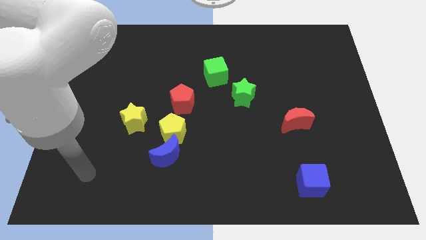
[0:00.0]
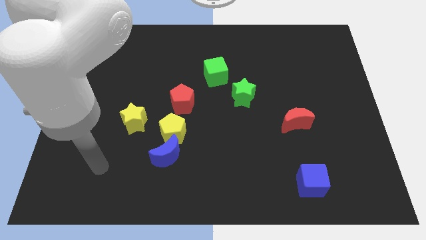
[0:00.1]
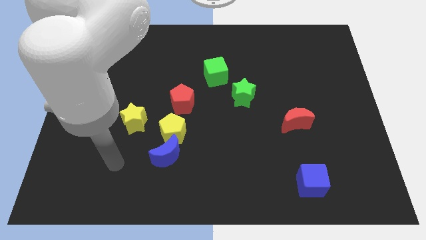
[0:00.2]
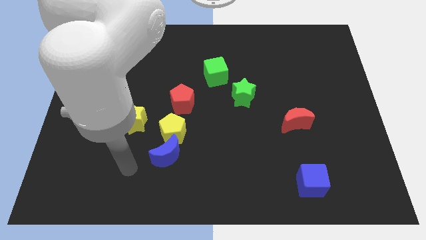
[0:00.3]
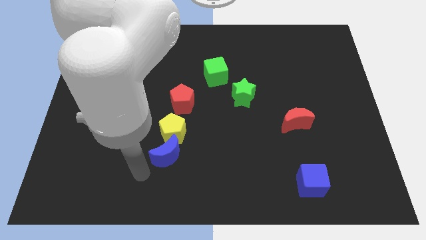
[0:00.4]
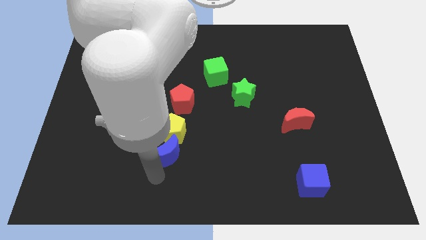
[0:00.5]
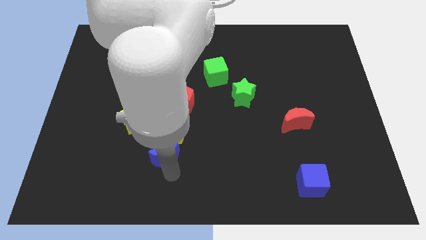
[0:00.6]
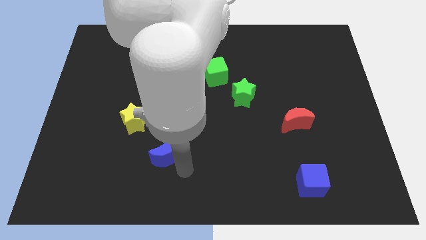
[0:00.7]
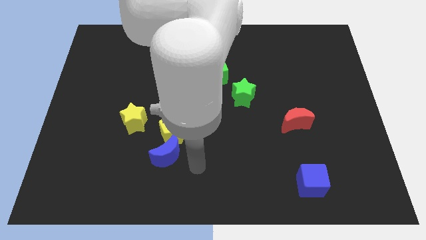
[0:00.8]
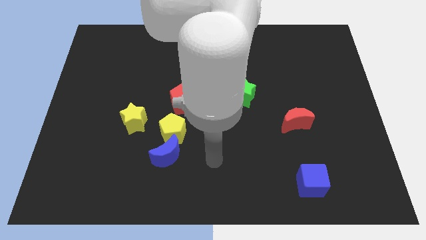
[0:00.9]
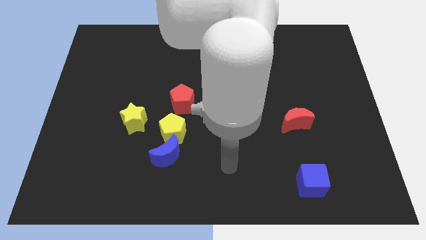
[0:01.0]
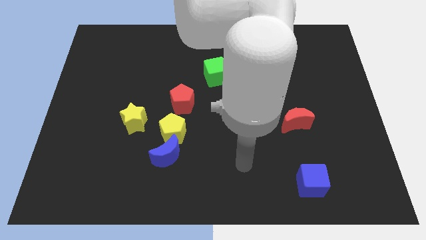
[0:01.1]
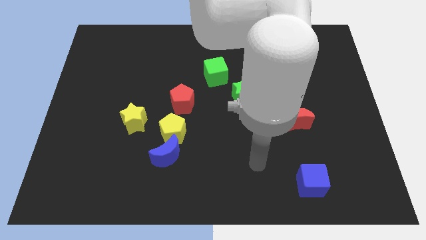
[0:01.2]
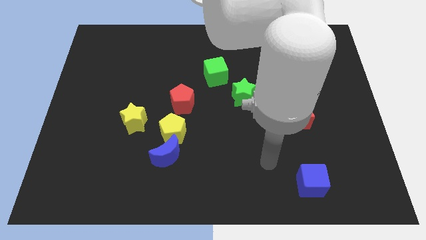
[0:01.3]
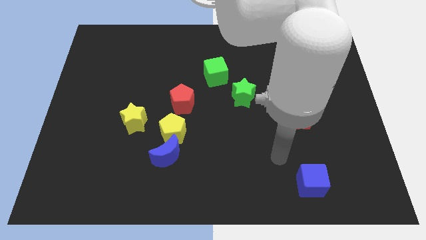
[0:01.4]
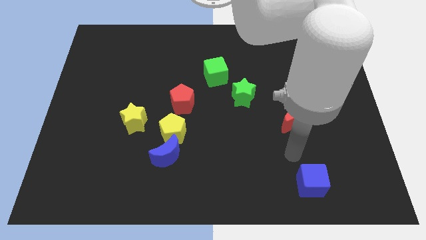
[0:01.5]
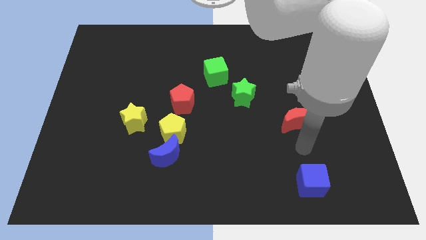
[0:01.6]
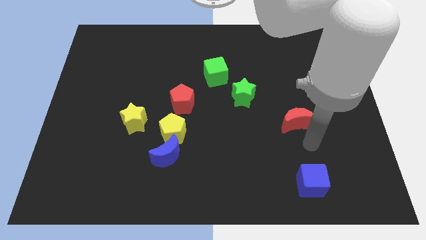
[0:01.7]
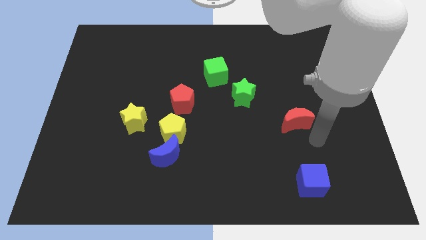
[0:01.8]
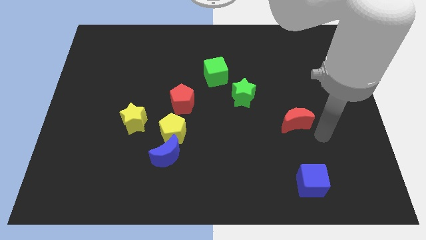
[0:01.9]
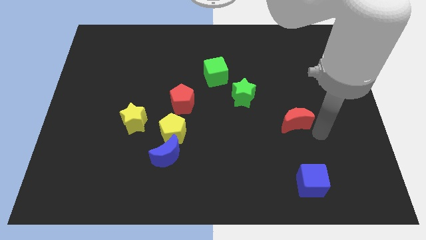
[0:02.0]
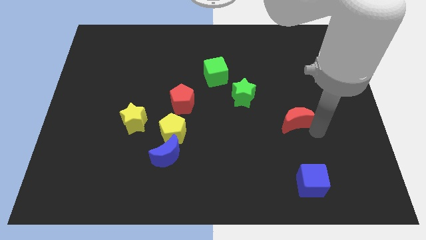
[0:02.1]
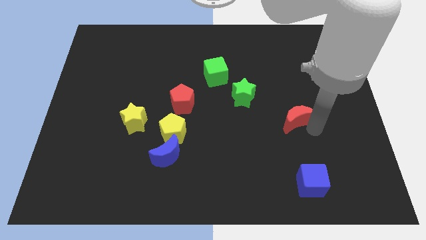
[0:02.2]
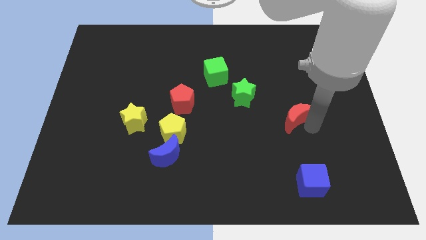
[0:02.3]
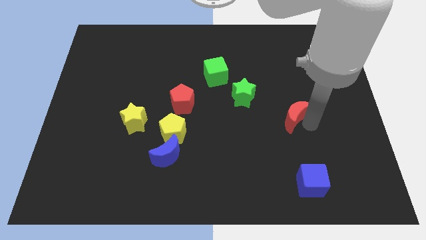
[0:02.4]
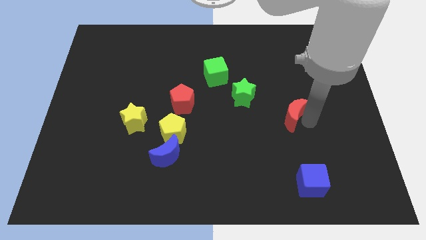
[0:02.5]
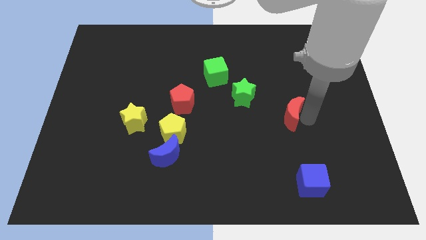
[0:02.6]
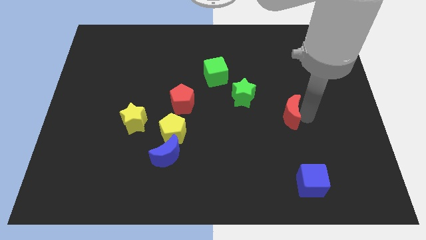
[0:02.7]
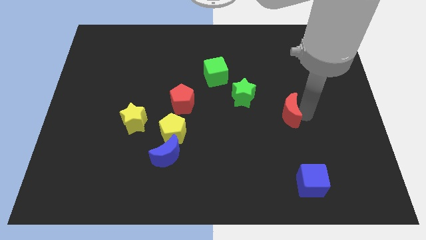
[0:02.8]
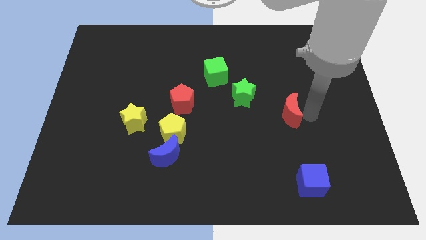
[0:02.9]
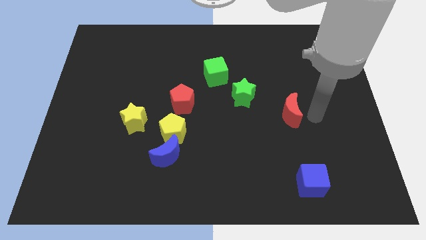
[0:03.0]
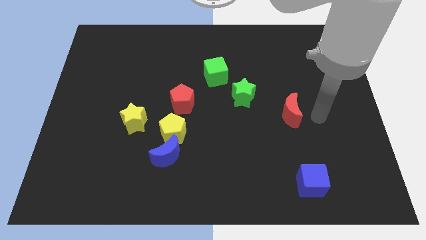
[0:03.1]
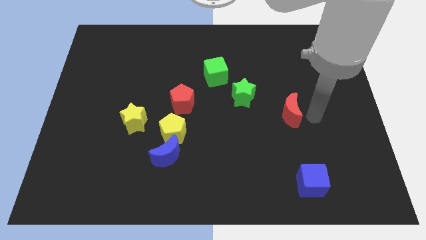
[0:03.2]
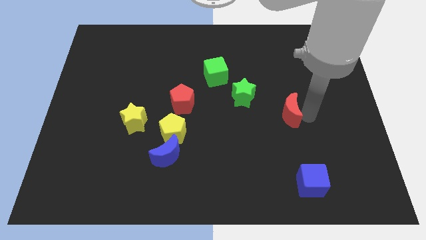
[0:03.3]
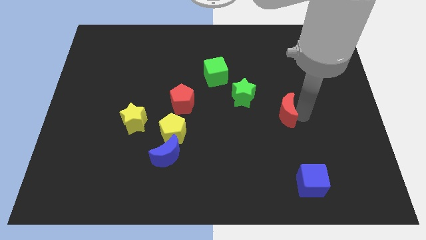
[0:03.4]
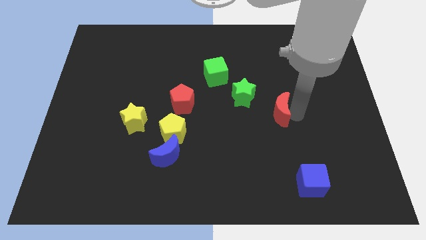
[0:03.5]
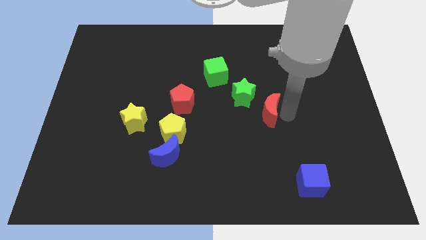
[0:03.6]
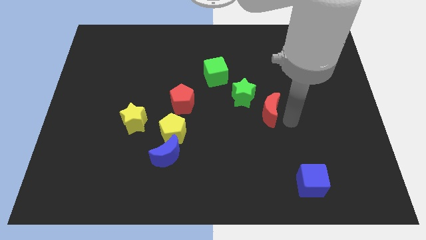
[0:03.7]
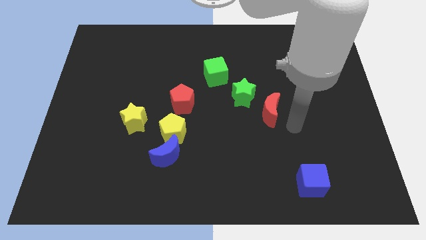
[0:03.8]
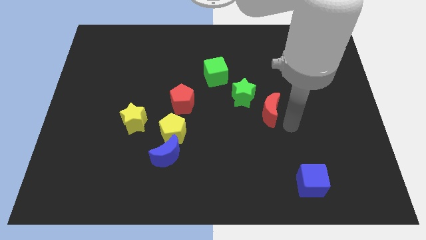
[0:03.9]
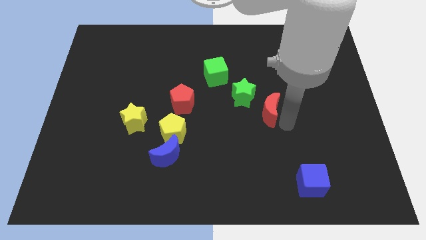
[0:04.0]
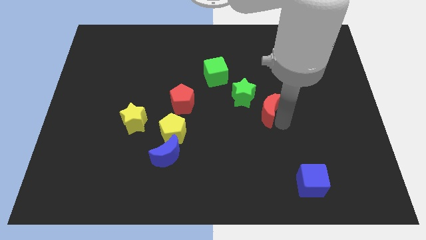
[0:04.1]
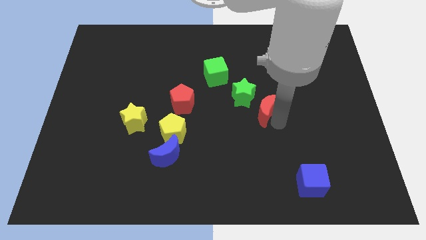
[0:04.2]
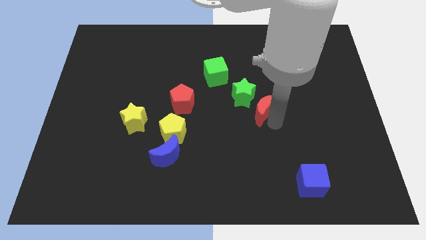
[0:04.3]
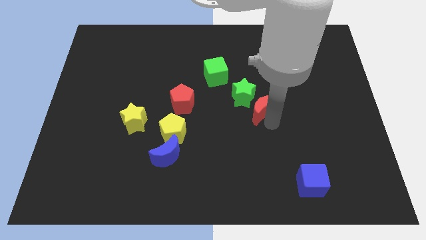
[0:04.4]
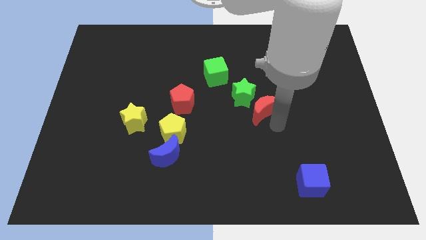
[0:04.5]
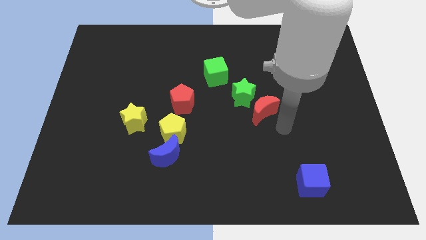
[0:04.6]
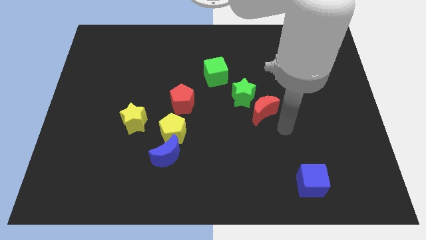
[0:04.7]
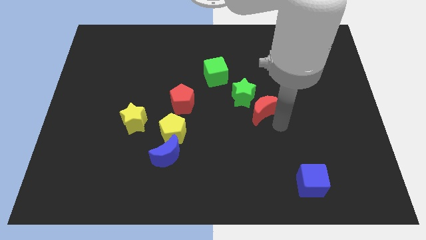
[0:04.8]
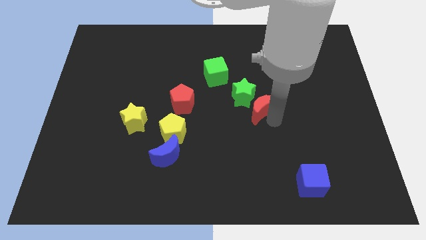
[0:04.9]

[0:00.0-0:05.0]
push the red moon to the green star

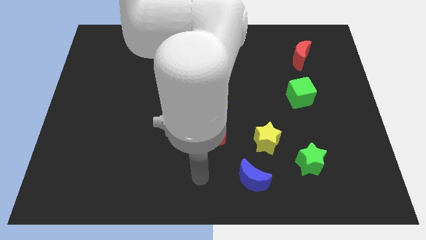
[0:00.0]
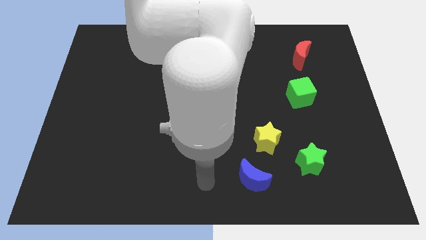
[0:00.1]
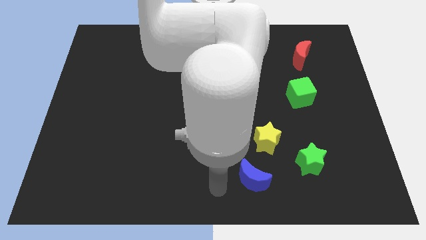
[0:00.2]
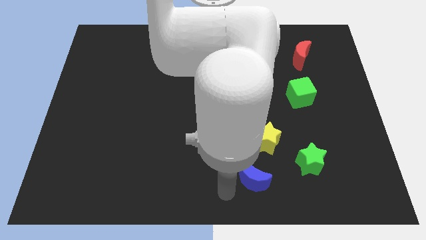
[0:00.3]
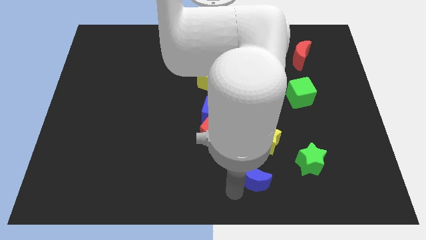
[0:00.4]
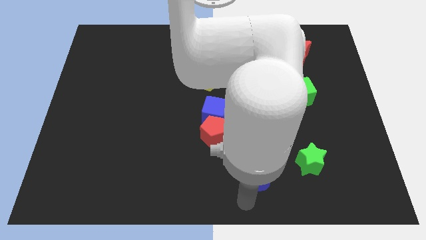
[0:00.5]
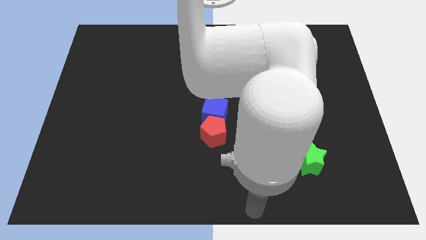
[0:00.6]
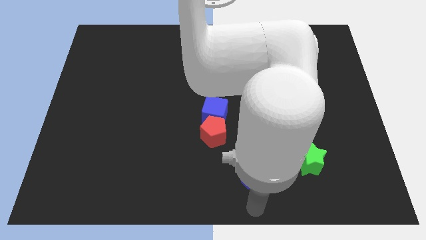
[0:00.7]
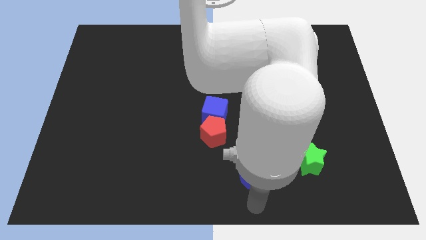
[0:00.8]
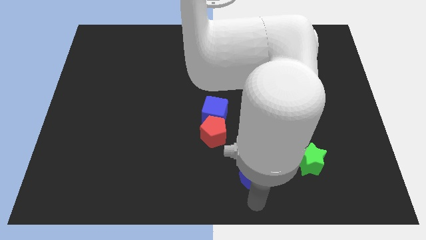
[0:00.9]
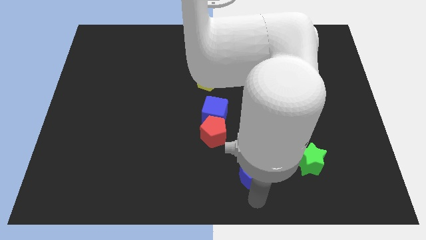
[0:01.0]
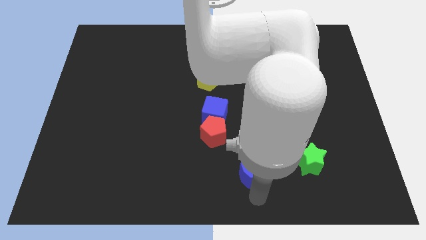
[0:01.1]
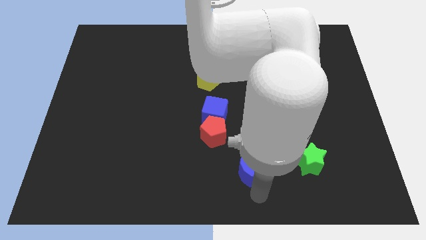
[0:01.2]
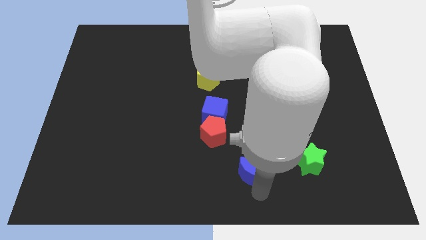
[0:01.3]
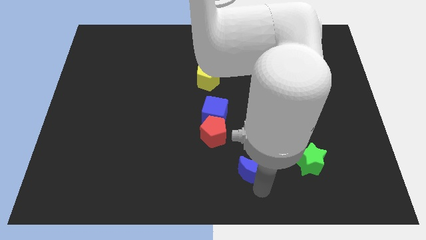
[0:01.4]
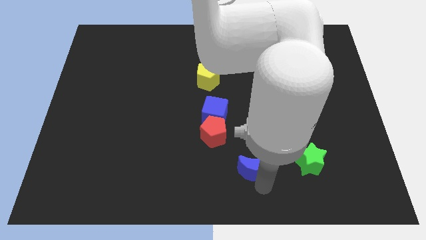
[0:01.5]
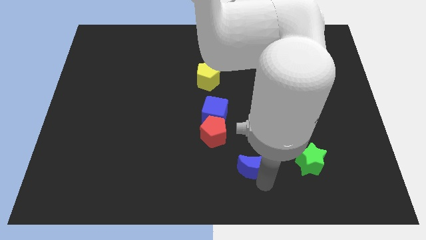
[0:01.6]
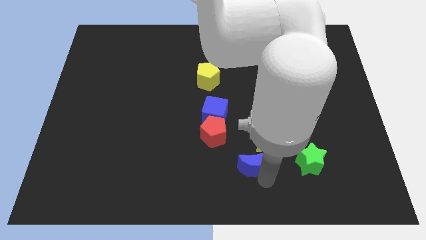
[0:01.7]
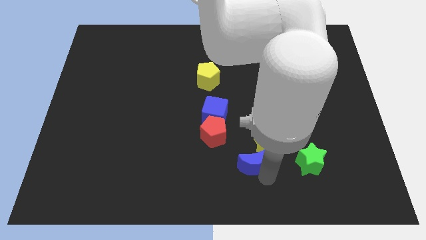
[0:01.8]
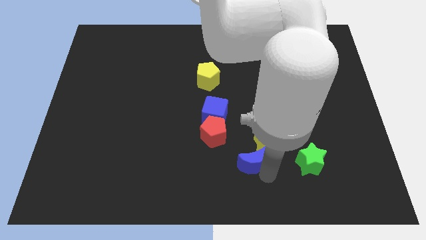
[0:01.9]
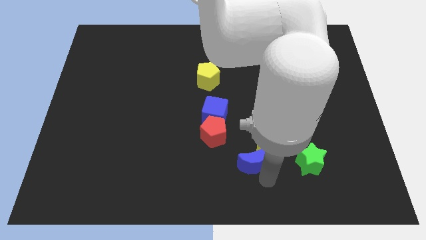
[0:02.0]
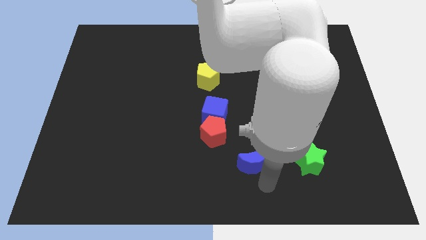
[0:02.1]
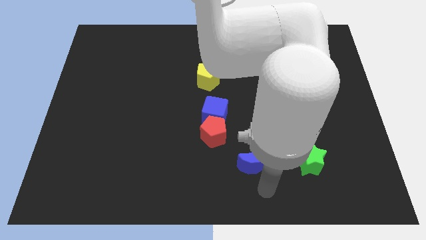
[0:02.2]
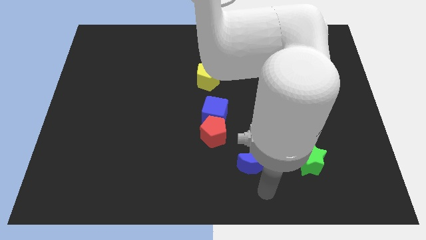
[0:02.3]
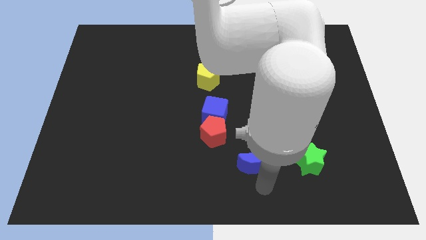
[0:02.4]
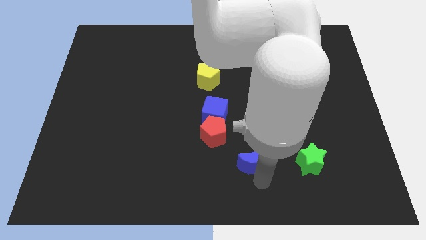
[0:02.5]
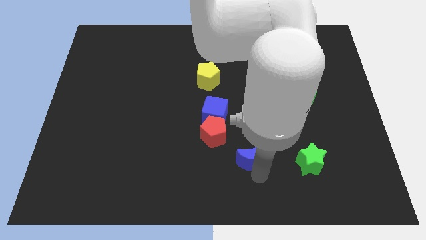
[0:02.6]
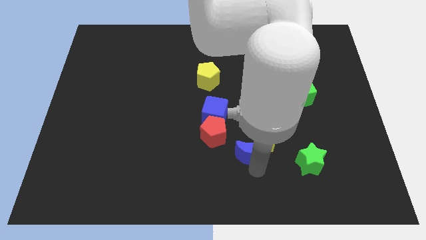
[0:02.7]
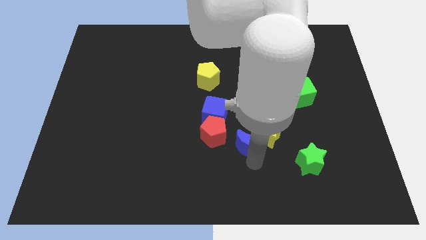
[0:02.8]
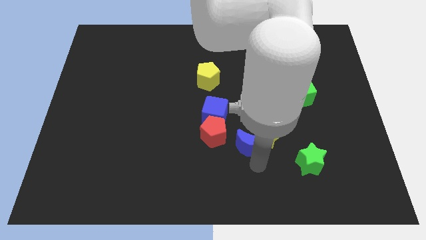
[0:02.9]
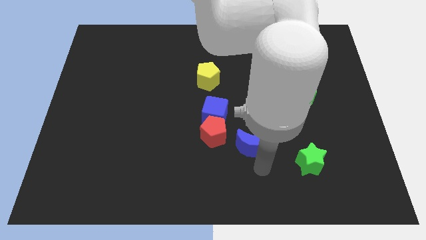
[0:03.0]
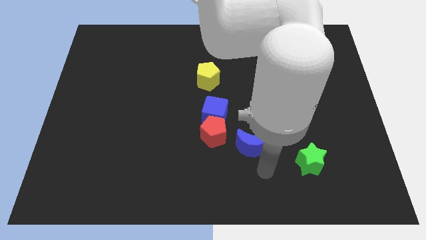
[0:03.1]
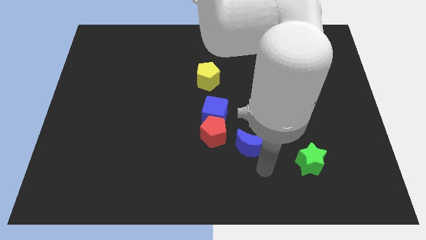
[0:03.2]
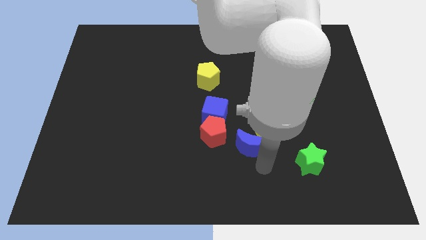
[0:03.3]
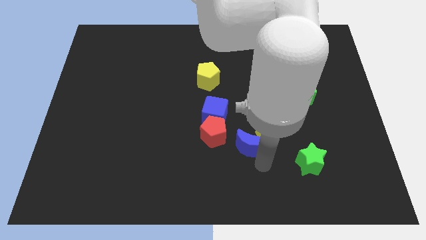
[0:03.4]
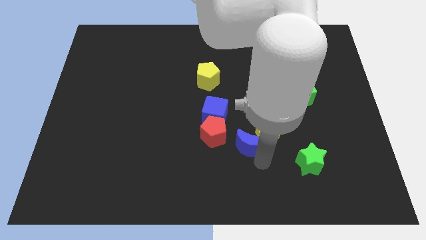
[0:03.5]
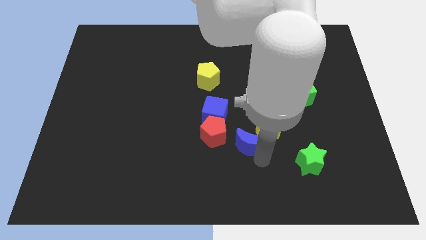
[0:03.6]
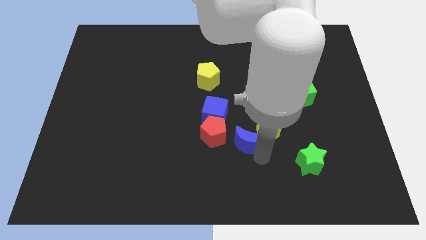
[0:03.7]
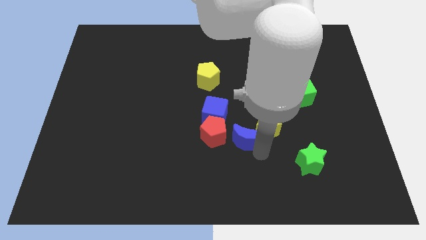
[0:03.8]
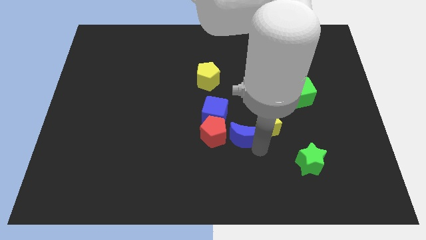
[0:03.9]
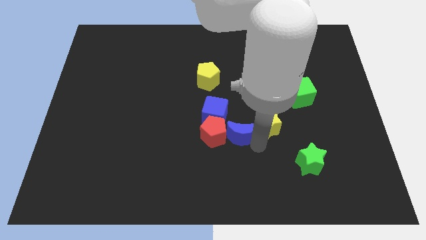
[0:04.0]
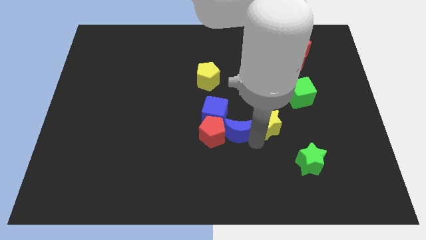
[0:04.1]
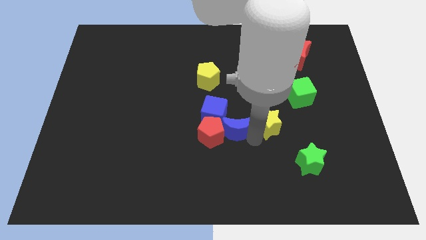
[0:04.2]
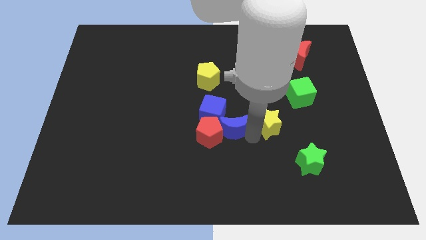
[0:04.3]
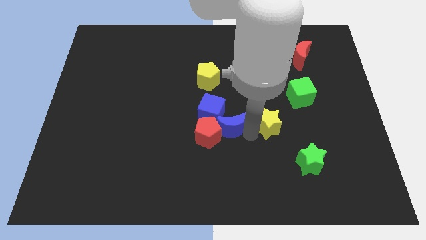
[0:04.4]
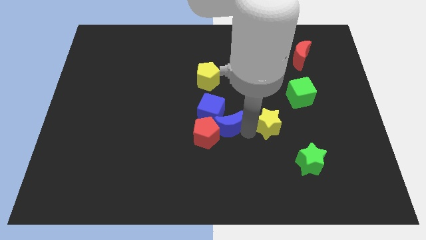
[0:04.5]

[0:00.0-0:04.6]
push the blue moon towards the blue cube
